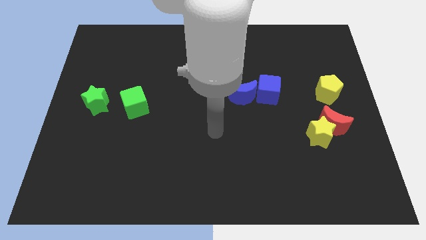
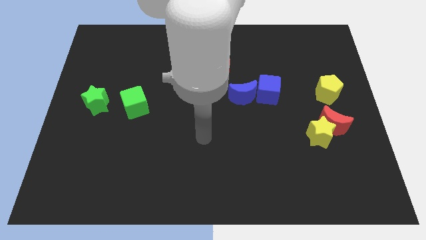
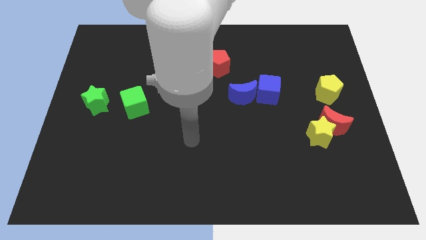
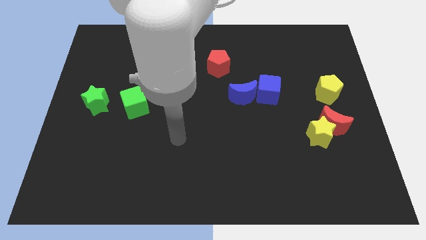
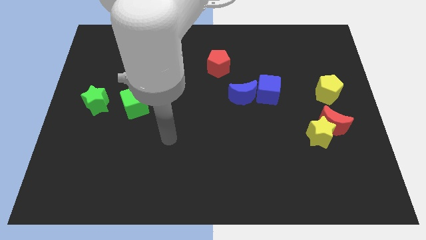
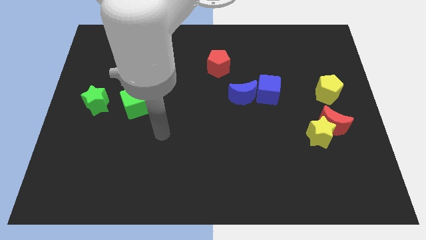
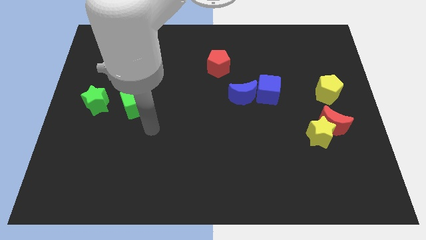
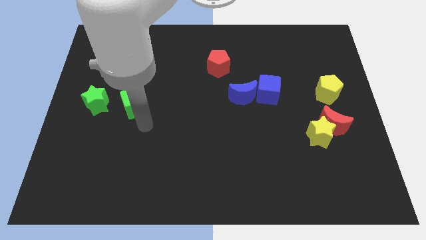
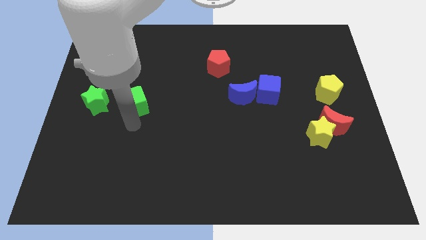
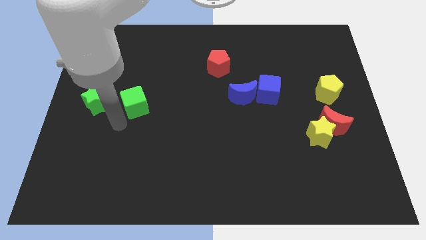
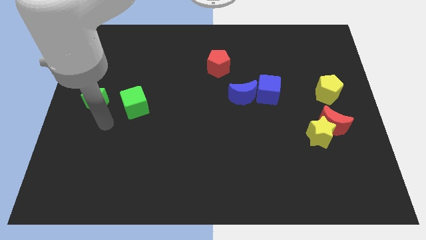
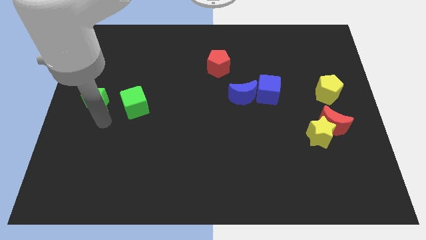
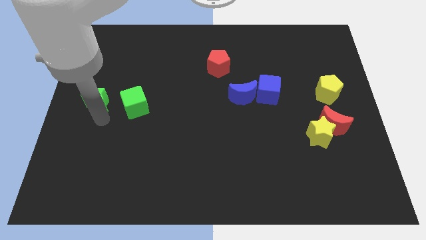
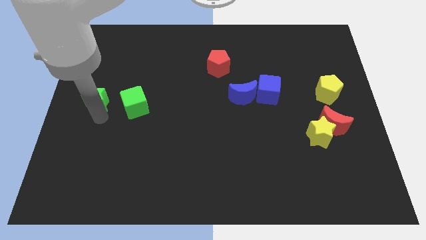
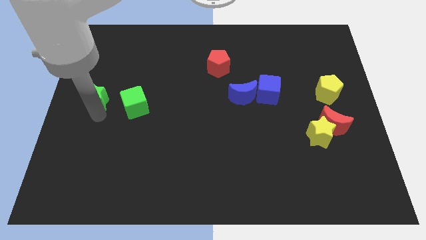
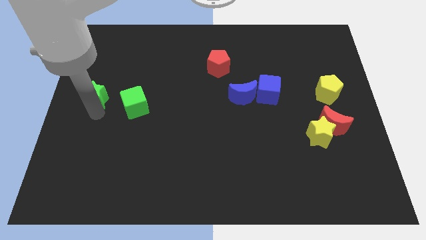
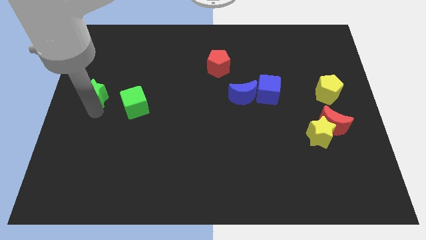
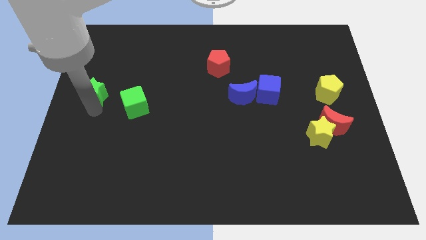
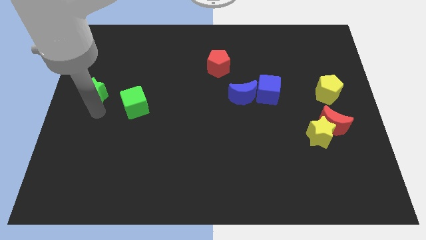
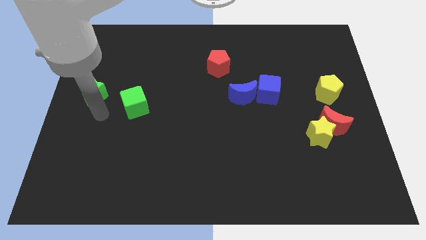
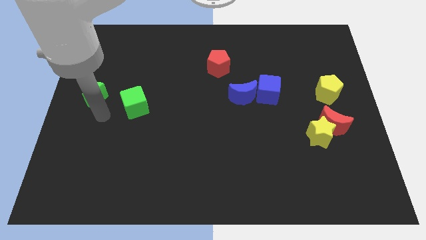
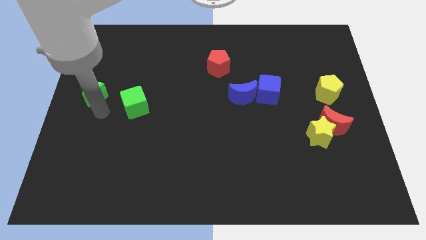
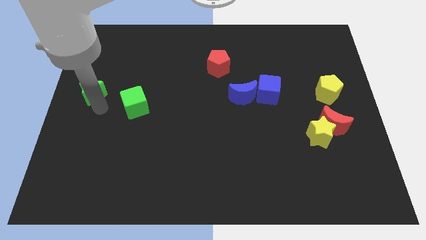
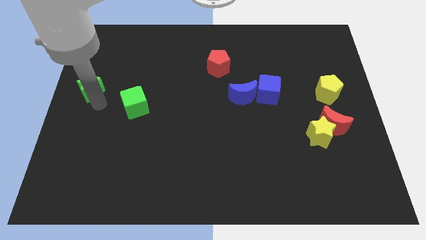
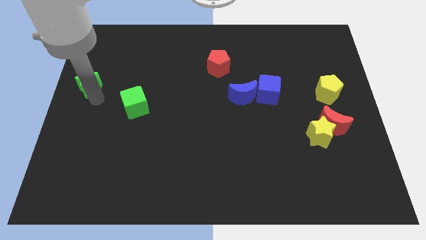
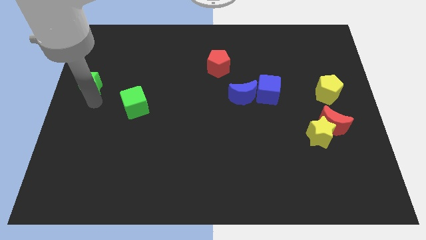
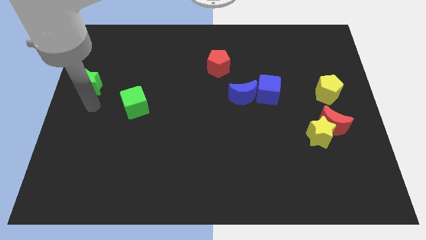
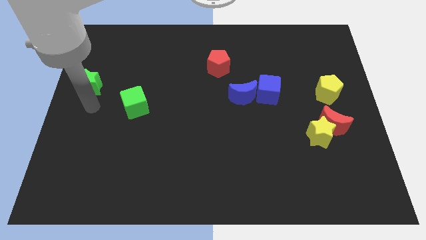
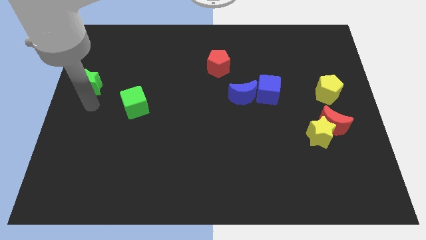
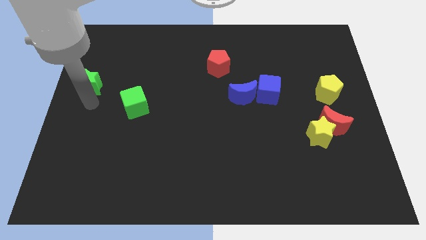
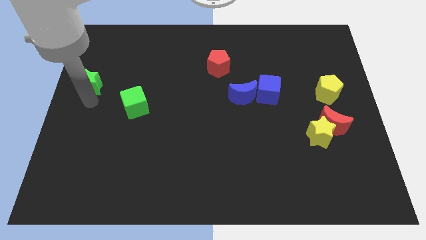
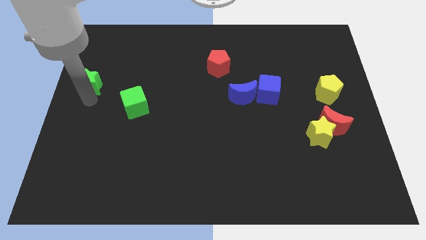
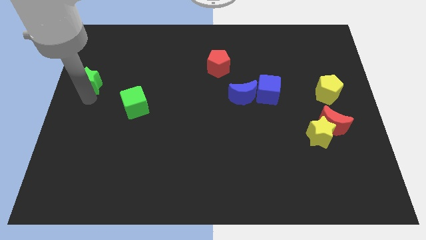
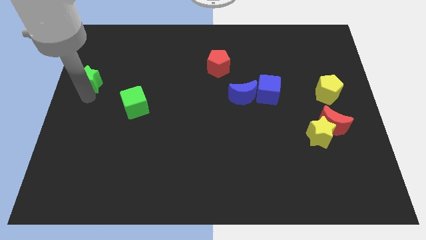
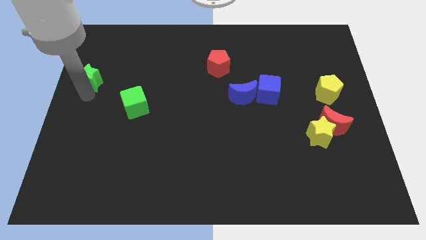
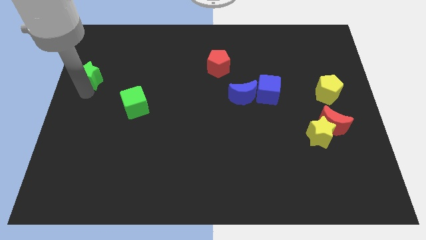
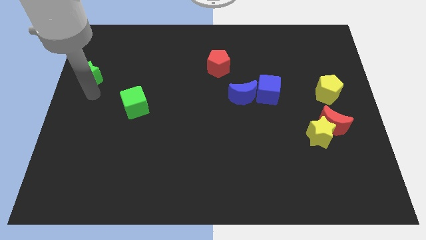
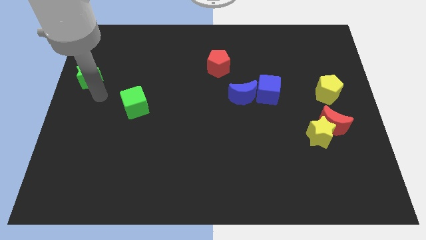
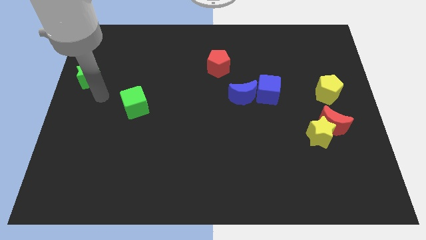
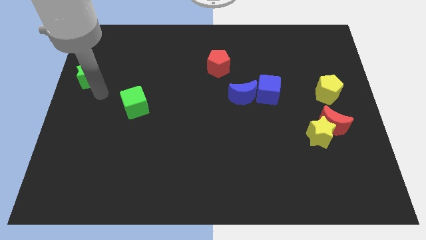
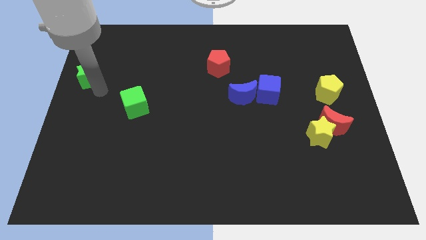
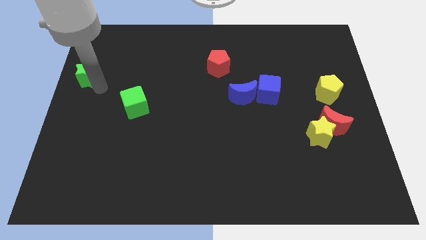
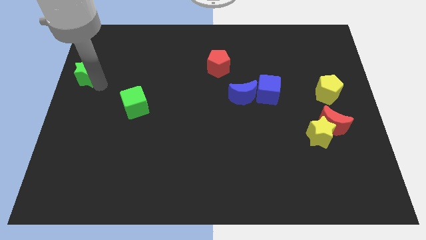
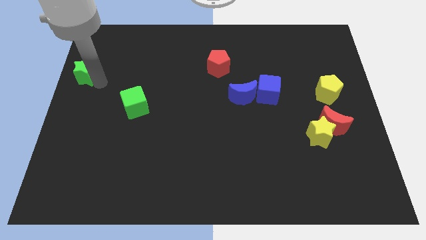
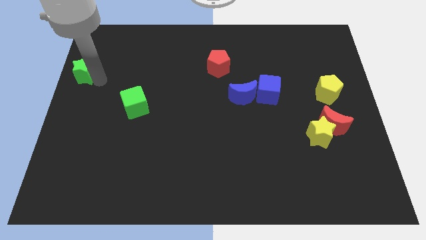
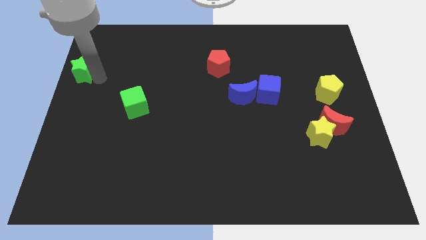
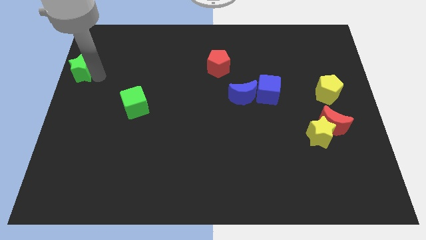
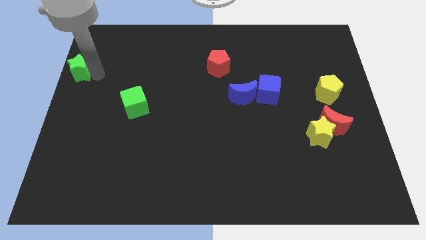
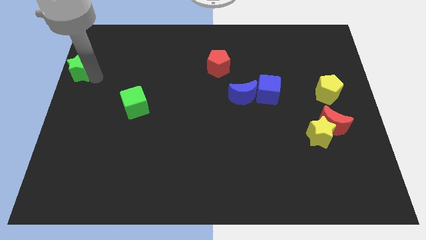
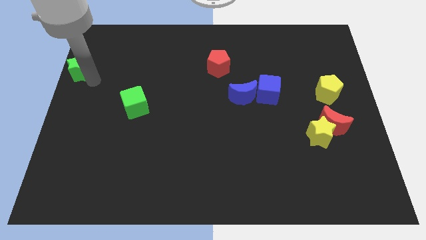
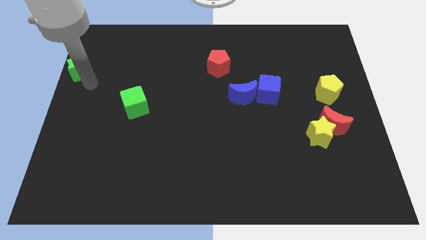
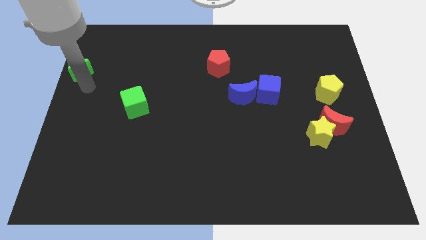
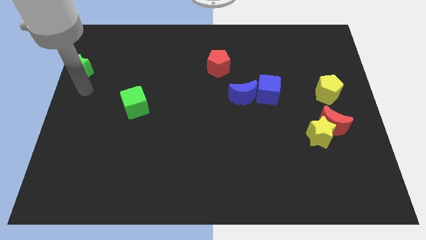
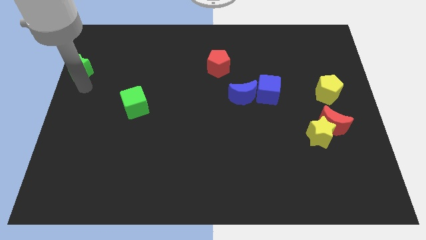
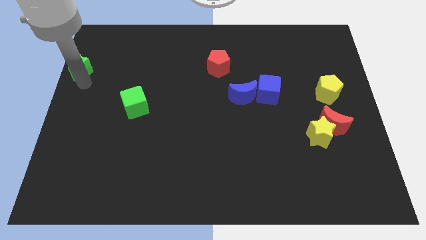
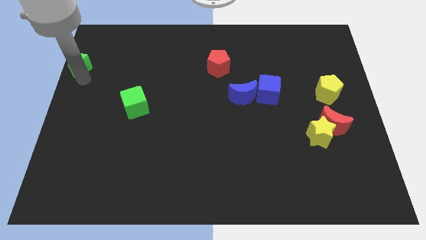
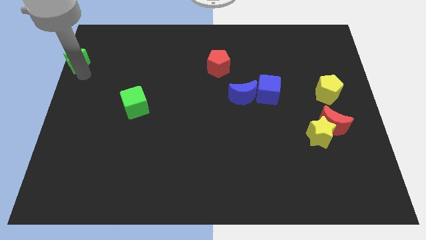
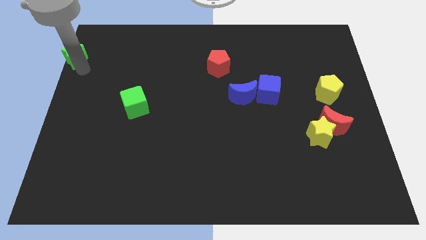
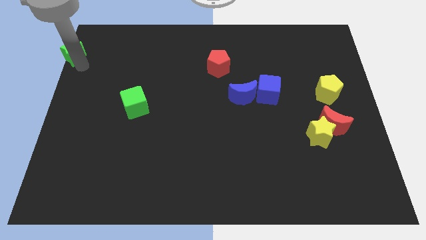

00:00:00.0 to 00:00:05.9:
move the green star to the upper left corner

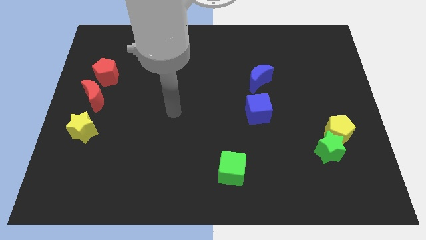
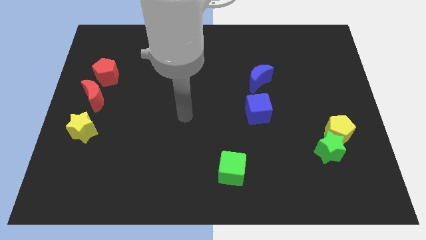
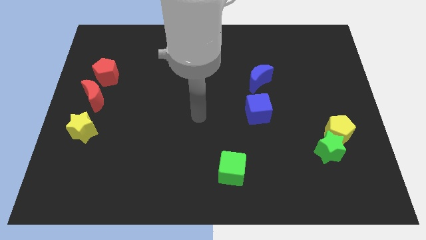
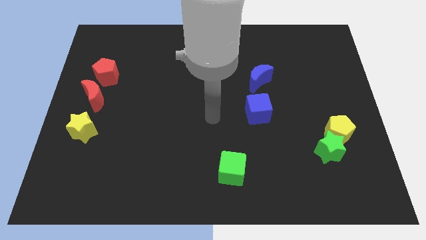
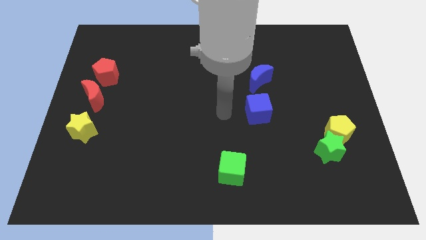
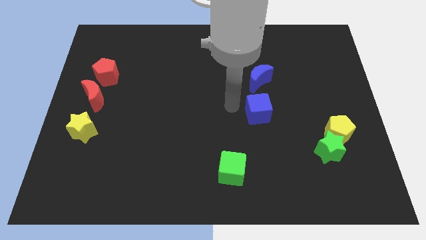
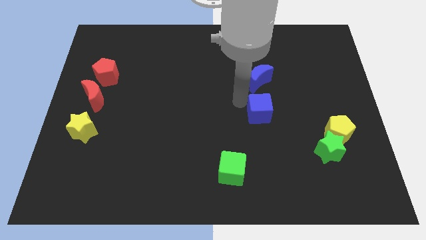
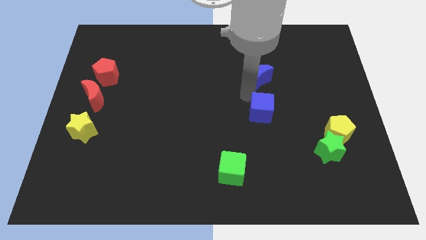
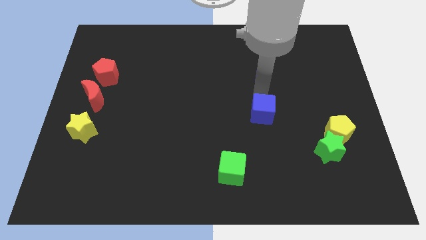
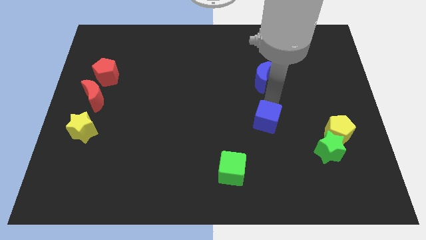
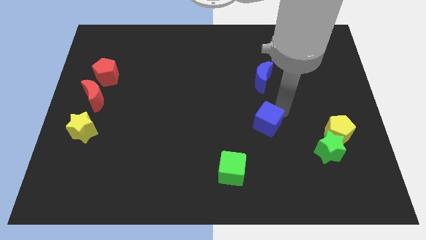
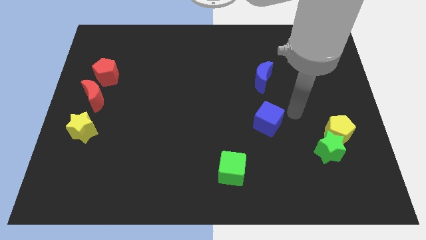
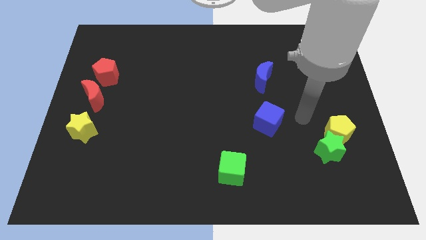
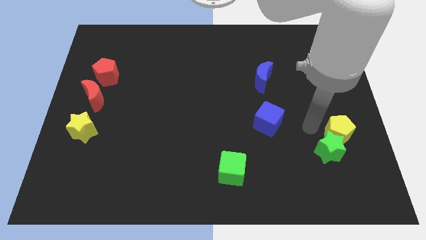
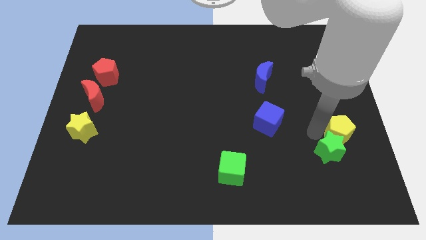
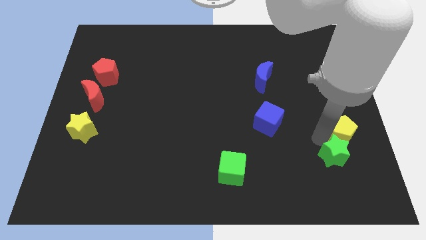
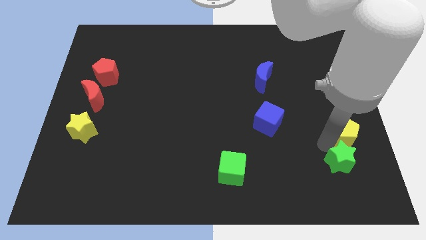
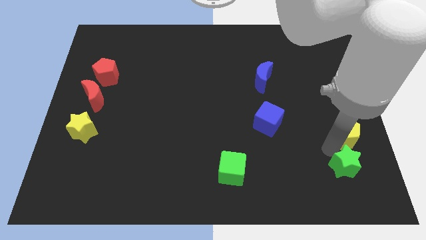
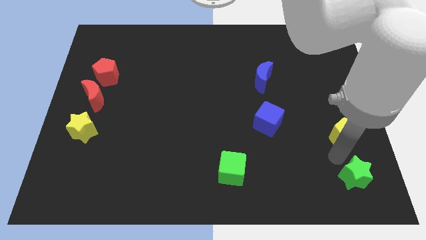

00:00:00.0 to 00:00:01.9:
put the green star to the bottom right corner
